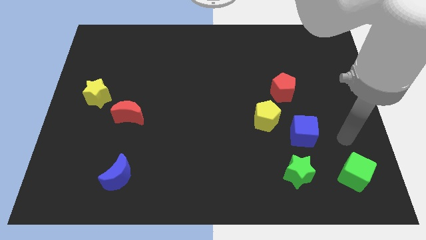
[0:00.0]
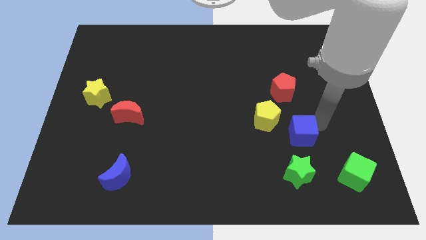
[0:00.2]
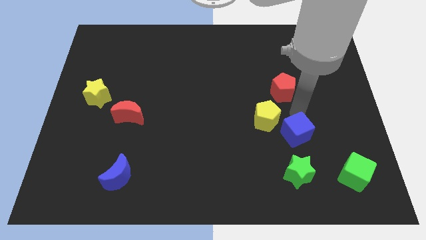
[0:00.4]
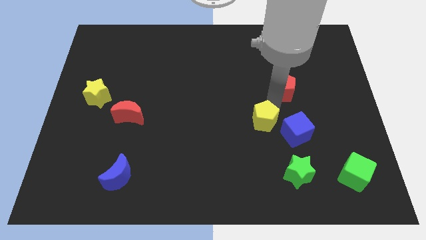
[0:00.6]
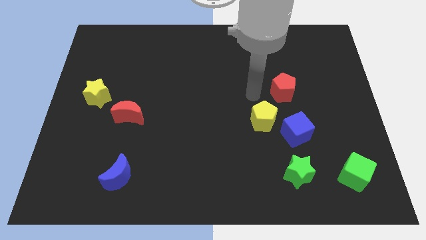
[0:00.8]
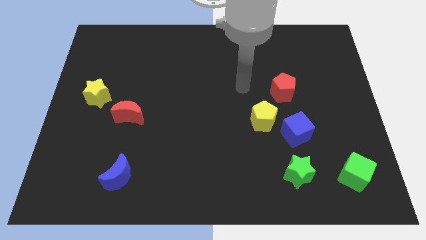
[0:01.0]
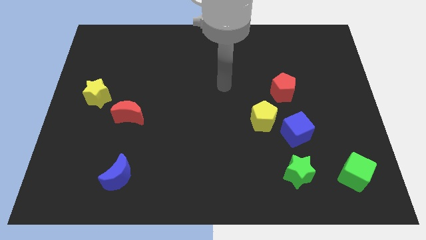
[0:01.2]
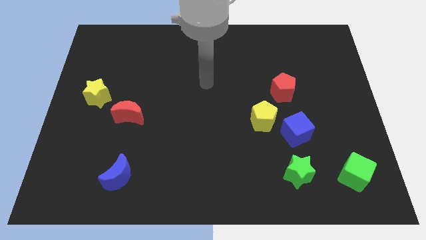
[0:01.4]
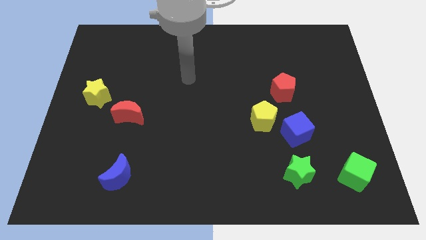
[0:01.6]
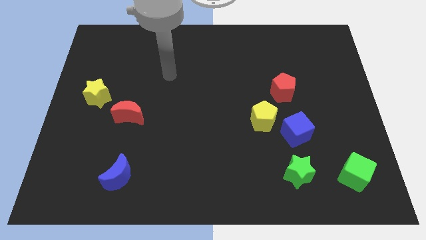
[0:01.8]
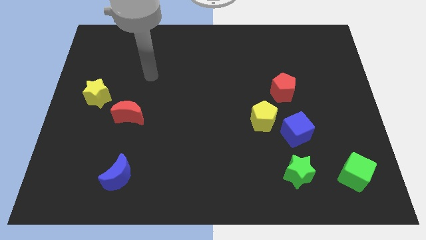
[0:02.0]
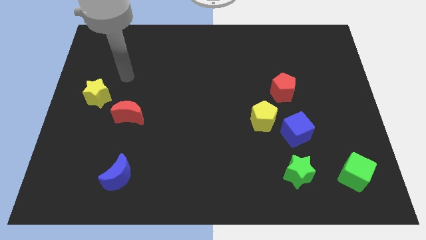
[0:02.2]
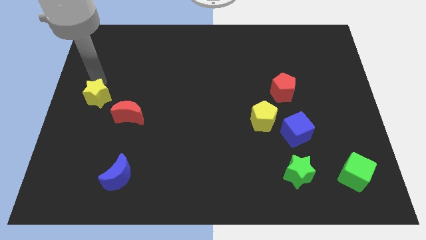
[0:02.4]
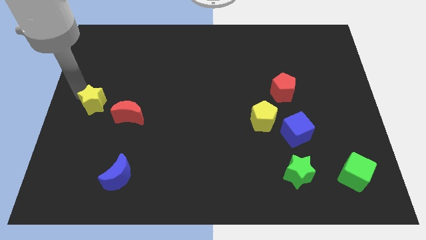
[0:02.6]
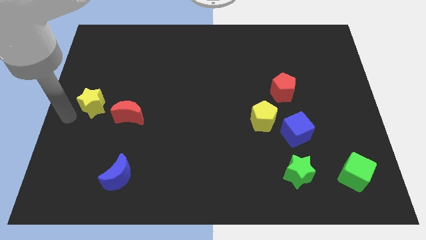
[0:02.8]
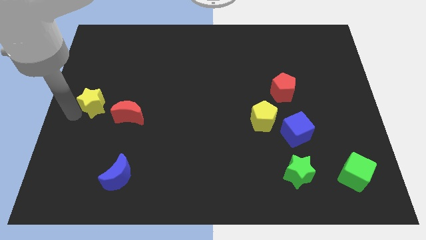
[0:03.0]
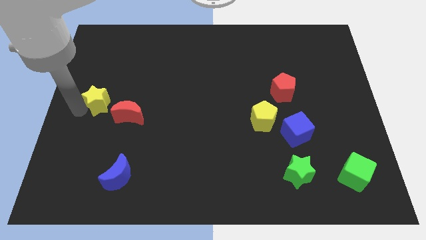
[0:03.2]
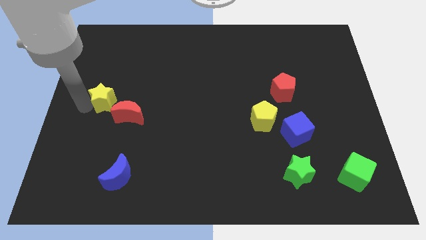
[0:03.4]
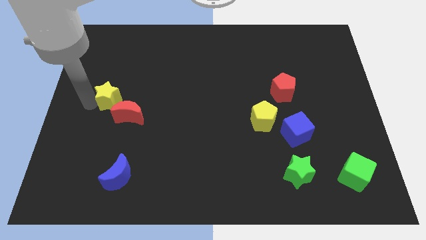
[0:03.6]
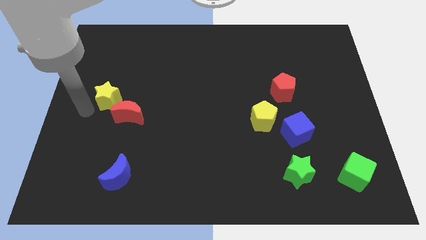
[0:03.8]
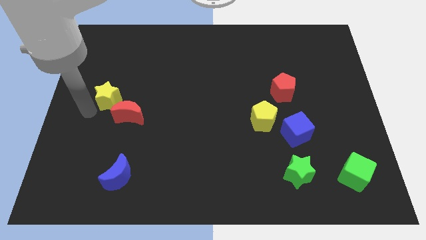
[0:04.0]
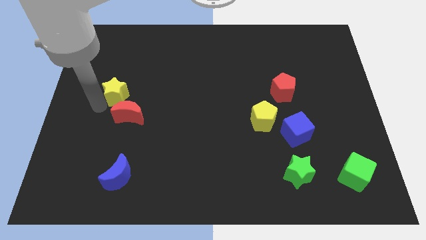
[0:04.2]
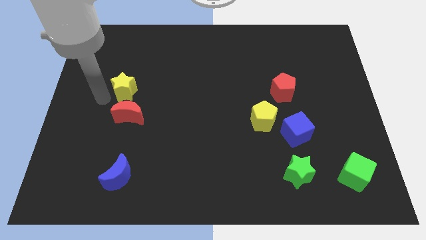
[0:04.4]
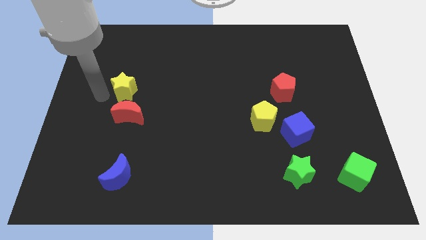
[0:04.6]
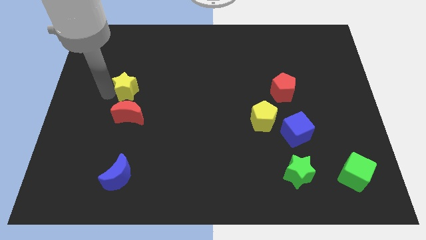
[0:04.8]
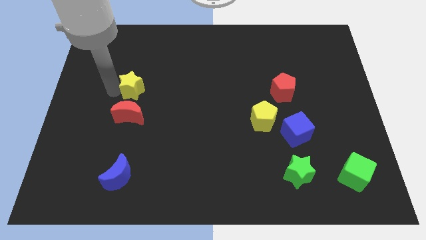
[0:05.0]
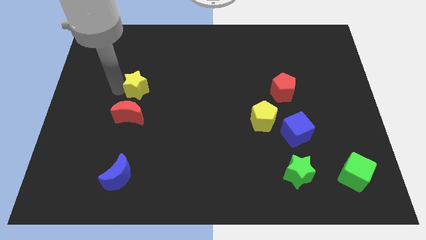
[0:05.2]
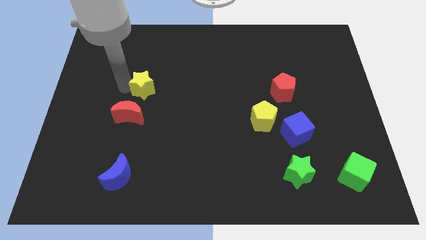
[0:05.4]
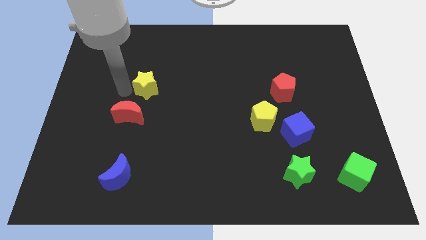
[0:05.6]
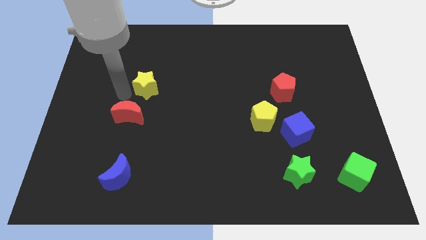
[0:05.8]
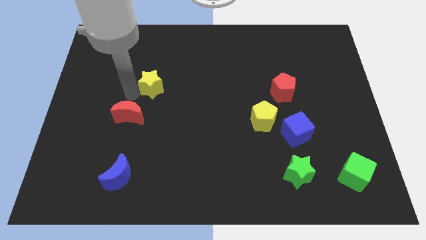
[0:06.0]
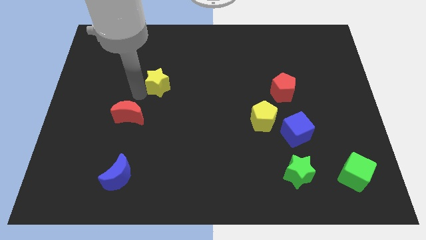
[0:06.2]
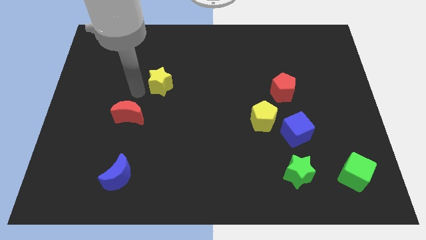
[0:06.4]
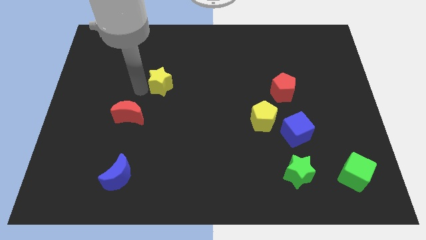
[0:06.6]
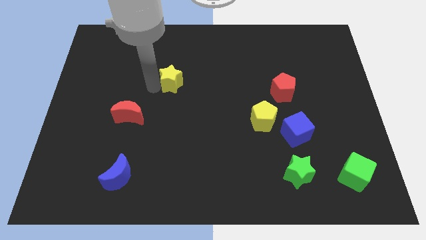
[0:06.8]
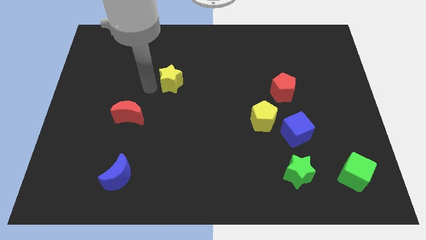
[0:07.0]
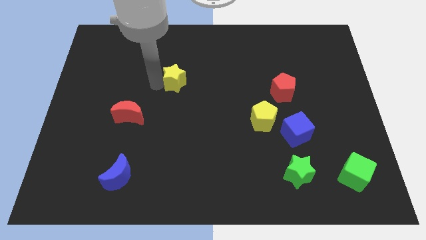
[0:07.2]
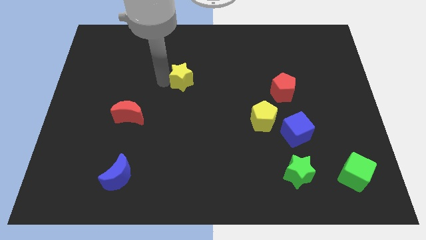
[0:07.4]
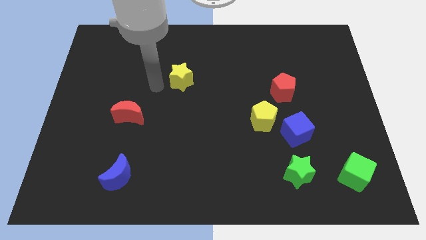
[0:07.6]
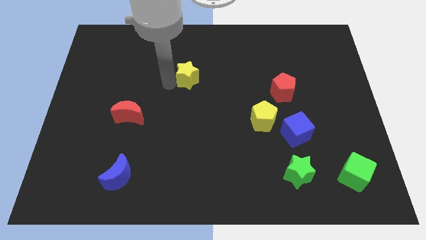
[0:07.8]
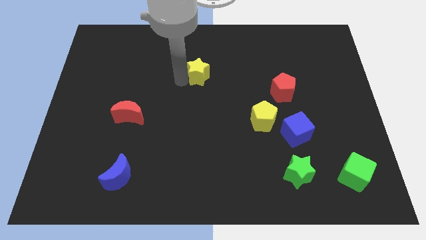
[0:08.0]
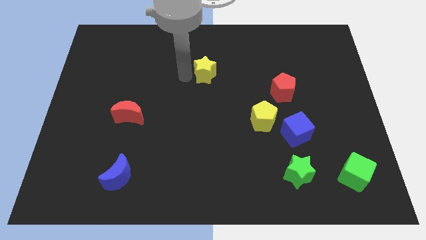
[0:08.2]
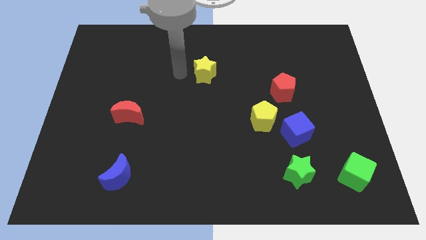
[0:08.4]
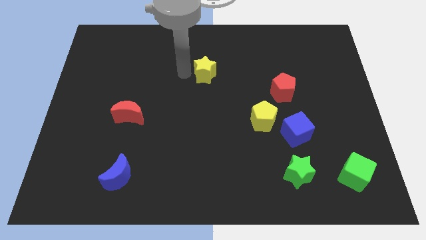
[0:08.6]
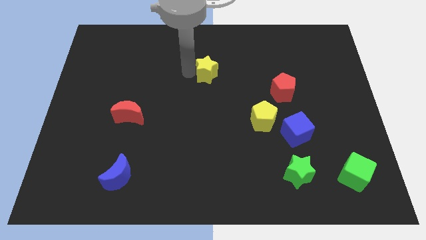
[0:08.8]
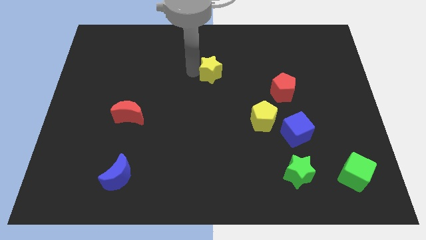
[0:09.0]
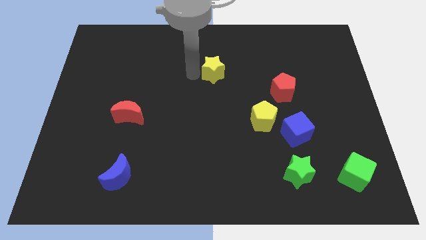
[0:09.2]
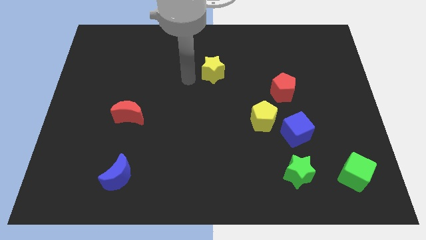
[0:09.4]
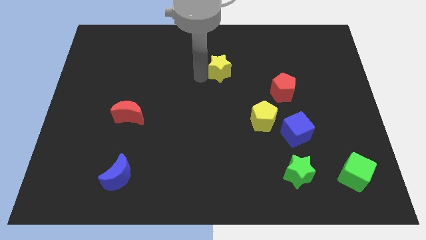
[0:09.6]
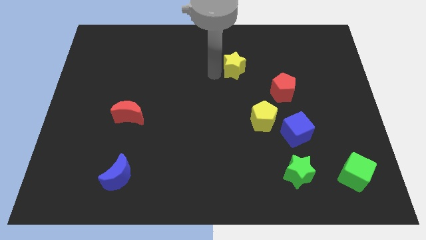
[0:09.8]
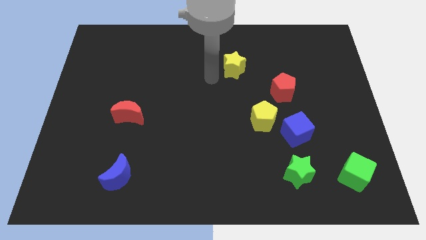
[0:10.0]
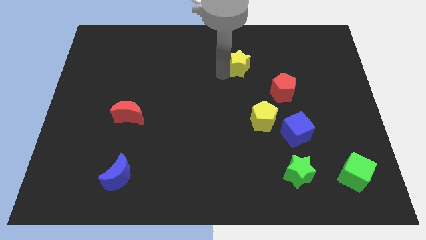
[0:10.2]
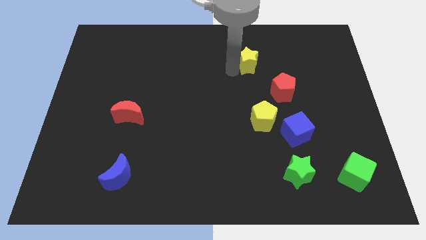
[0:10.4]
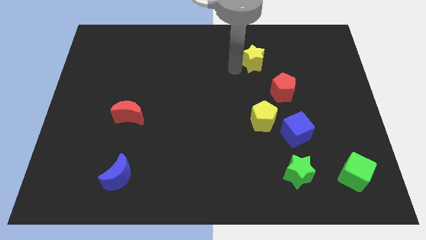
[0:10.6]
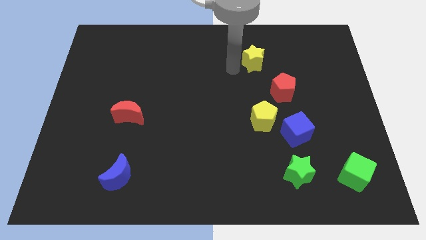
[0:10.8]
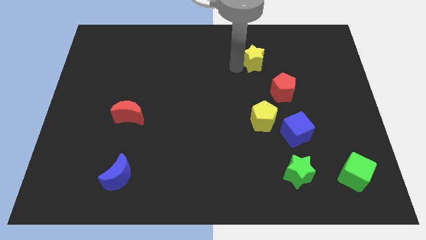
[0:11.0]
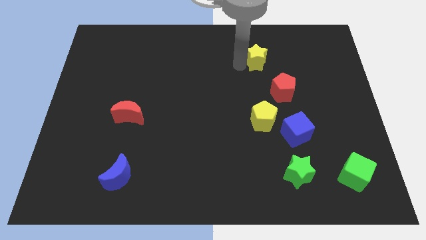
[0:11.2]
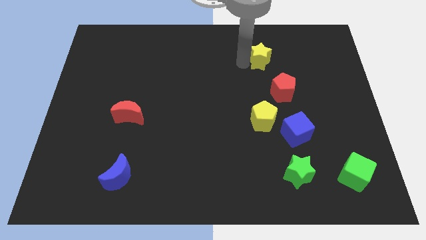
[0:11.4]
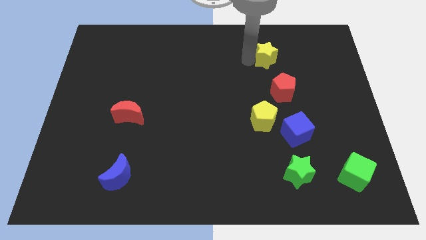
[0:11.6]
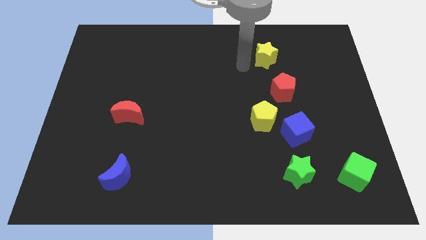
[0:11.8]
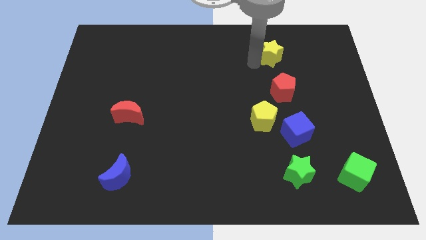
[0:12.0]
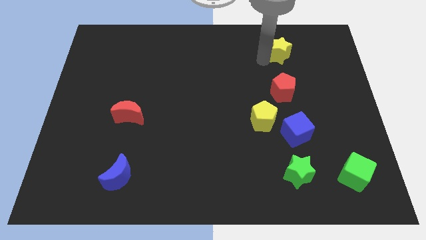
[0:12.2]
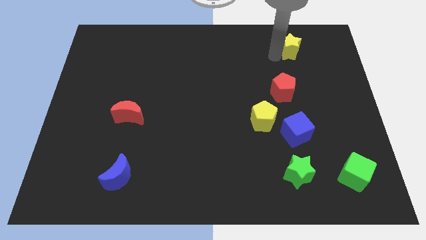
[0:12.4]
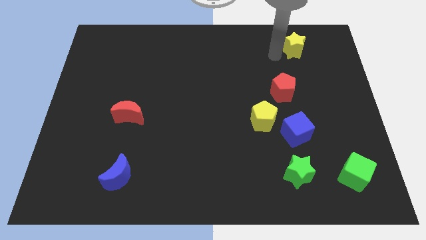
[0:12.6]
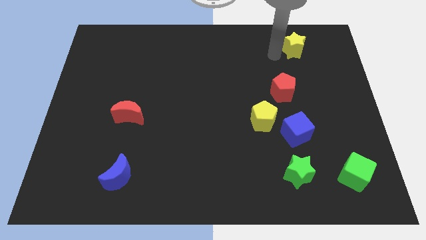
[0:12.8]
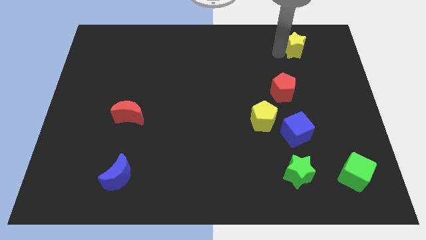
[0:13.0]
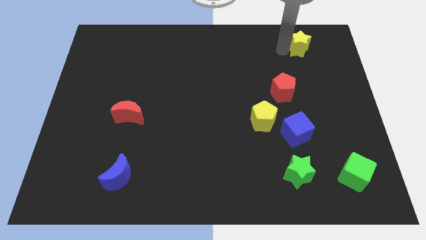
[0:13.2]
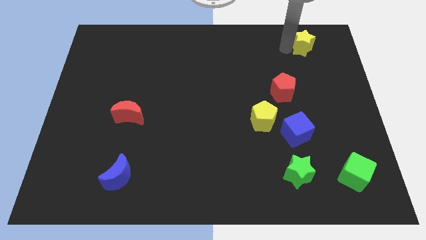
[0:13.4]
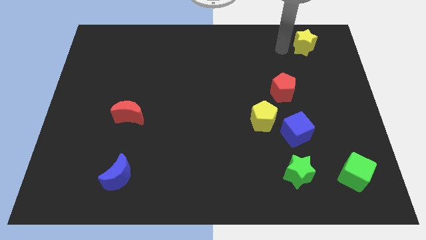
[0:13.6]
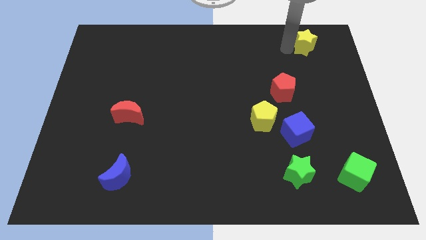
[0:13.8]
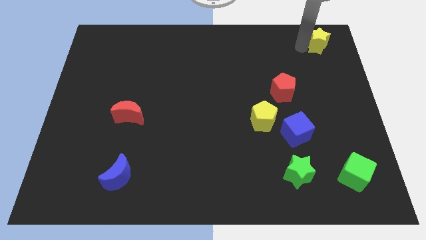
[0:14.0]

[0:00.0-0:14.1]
put the yellow star to the top right
